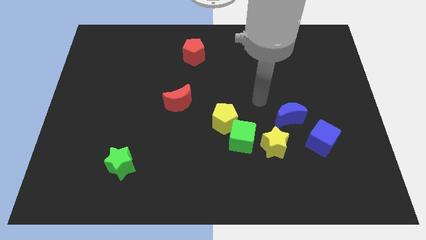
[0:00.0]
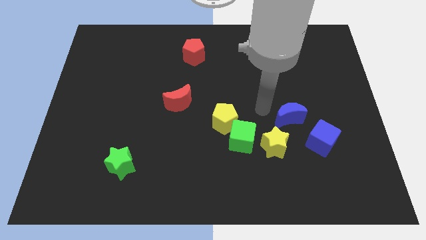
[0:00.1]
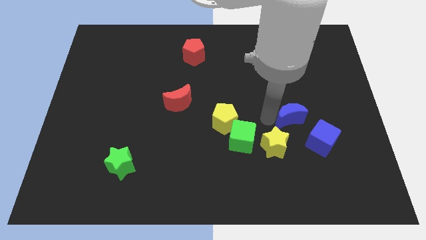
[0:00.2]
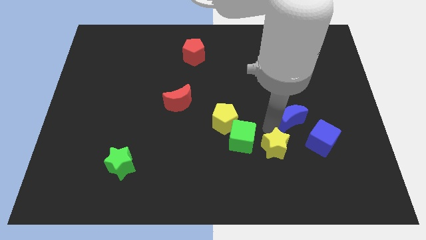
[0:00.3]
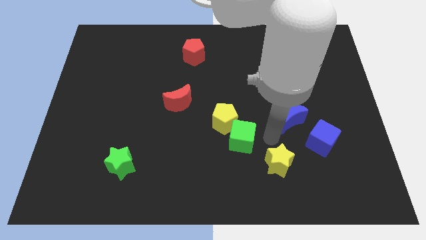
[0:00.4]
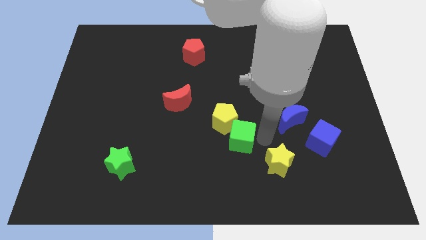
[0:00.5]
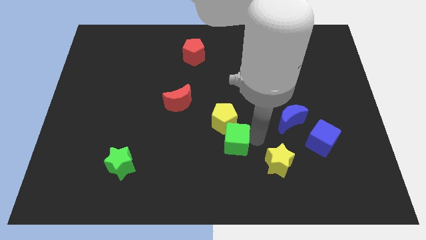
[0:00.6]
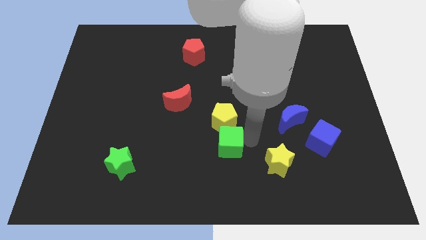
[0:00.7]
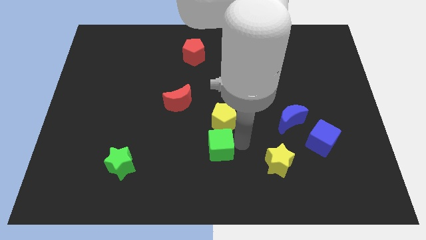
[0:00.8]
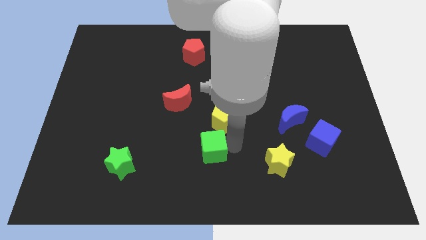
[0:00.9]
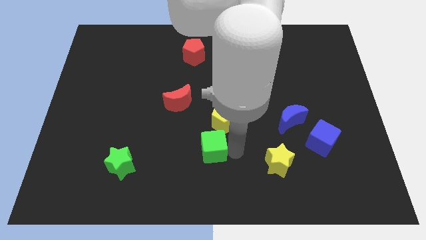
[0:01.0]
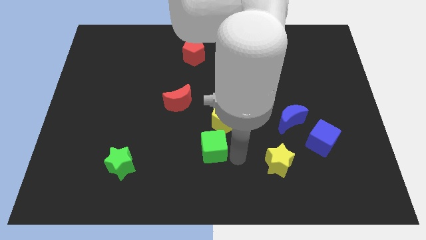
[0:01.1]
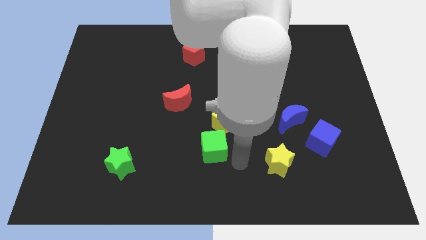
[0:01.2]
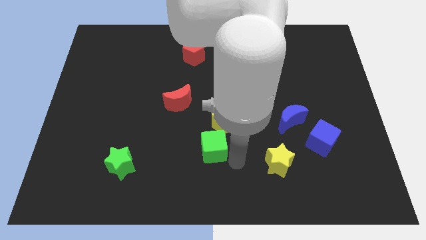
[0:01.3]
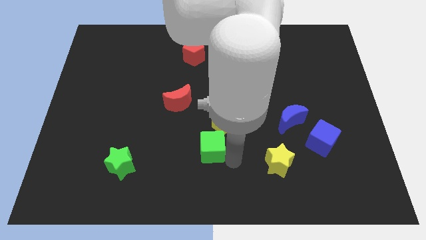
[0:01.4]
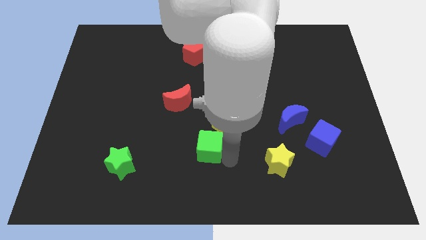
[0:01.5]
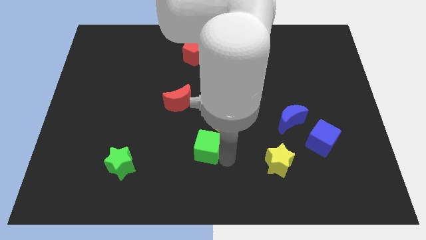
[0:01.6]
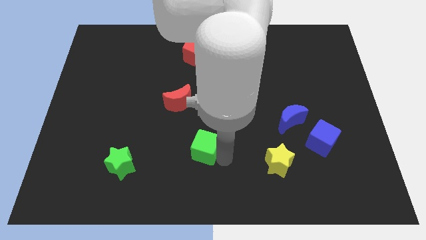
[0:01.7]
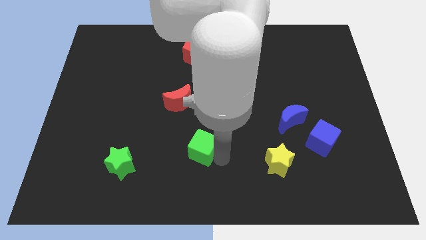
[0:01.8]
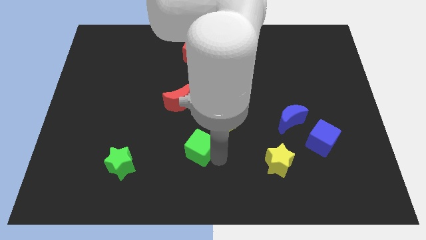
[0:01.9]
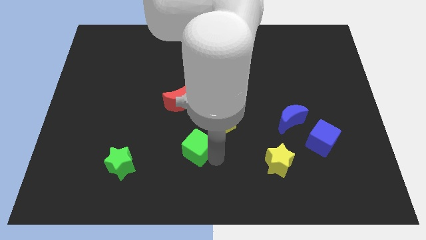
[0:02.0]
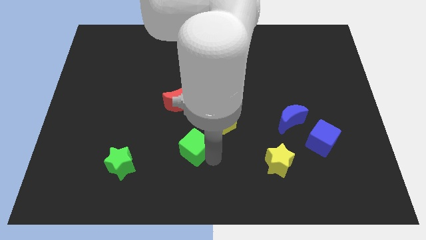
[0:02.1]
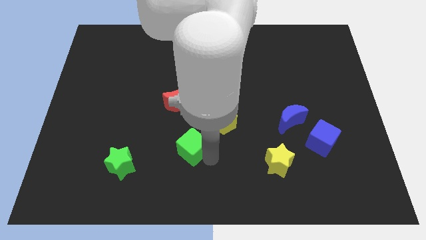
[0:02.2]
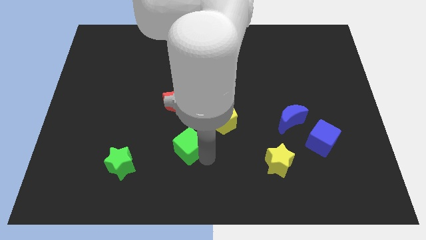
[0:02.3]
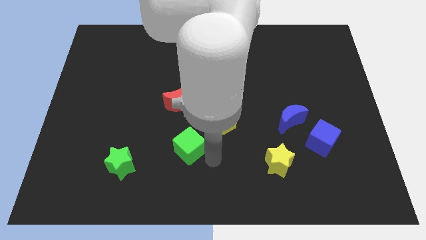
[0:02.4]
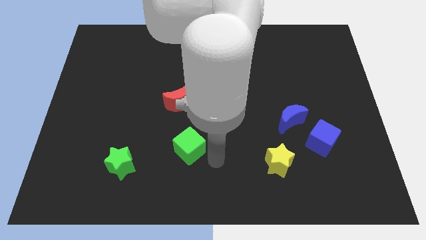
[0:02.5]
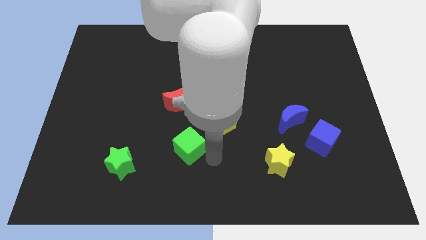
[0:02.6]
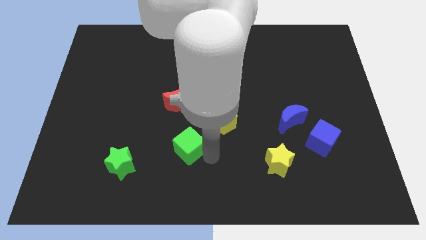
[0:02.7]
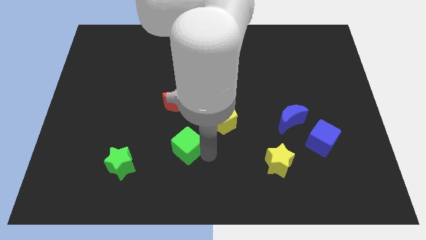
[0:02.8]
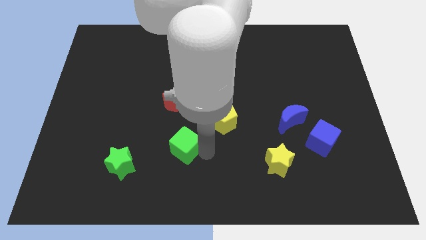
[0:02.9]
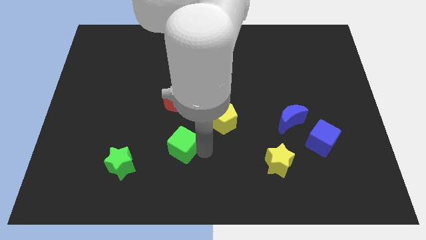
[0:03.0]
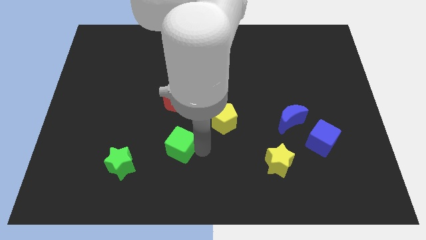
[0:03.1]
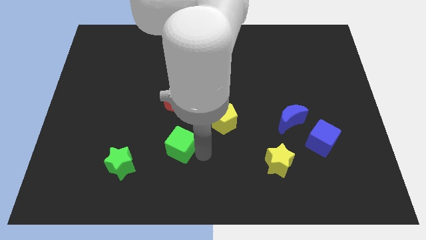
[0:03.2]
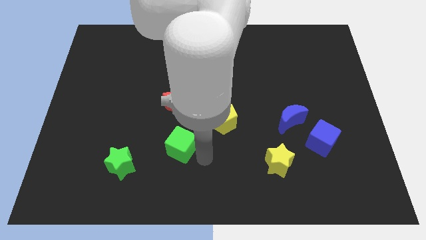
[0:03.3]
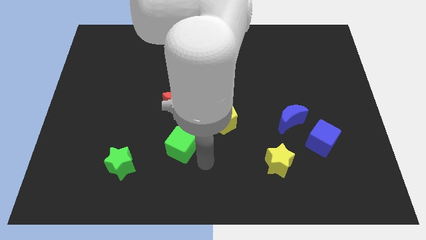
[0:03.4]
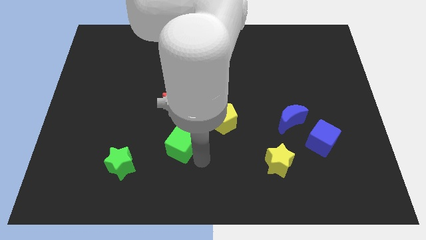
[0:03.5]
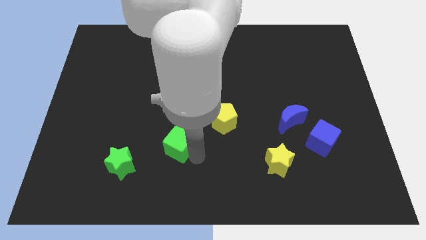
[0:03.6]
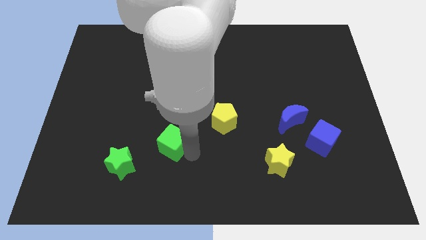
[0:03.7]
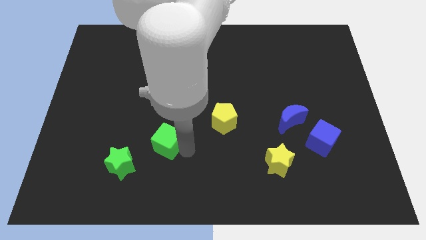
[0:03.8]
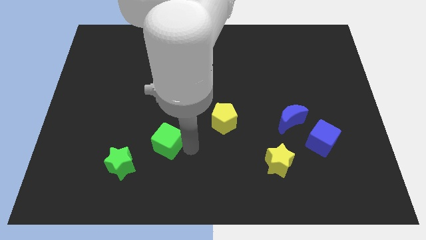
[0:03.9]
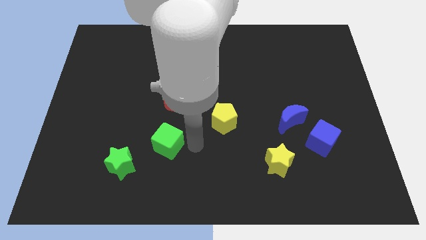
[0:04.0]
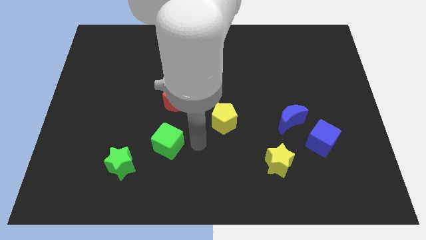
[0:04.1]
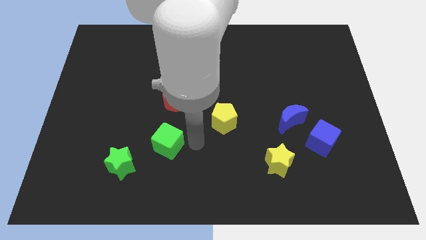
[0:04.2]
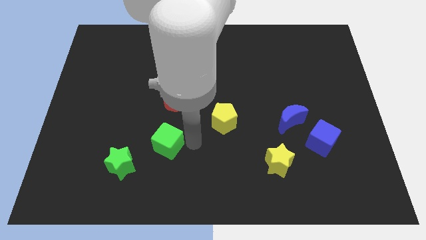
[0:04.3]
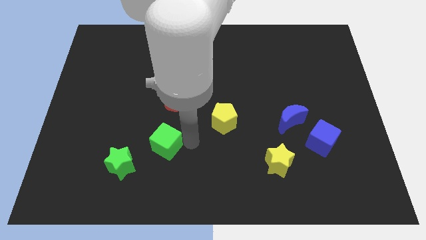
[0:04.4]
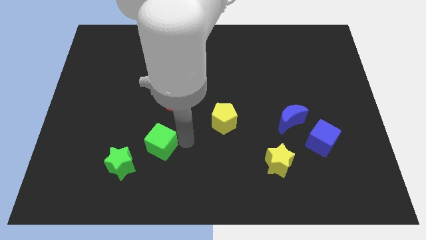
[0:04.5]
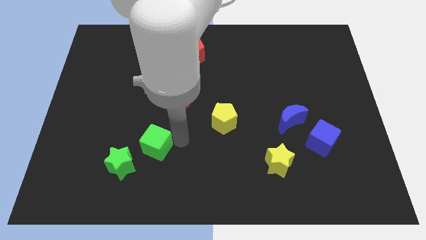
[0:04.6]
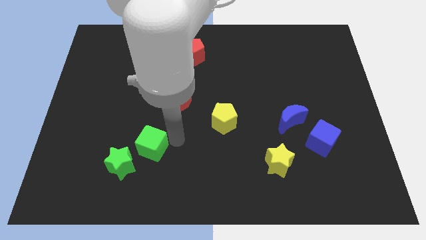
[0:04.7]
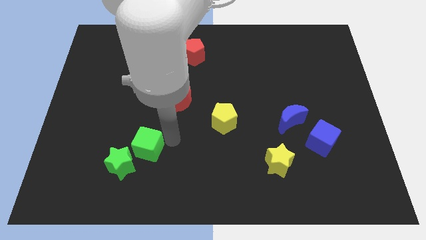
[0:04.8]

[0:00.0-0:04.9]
move the green cube to the left

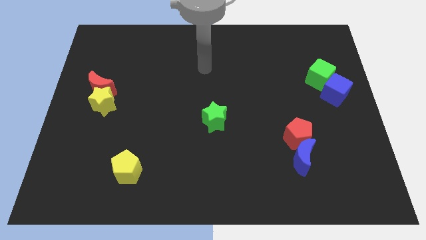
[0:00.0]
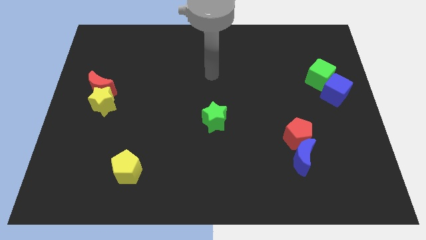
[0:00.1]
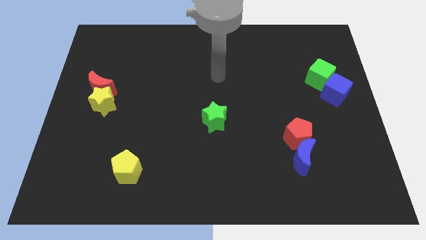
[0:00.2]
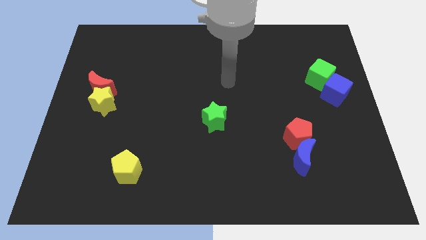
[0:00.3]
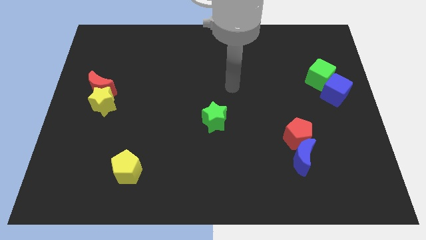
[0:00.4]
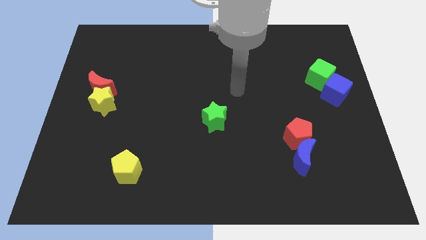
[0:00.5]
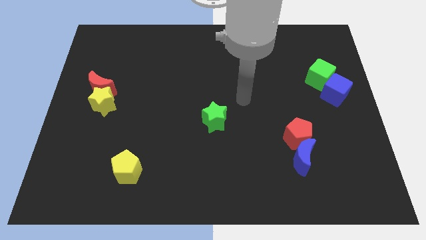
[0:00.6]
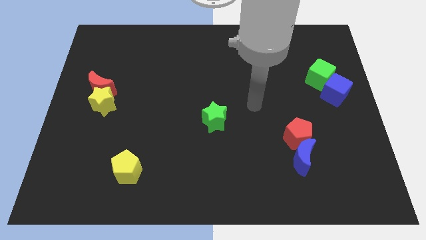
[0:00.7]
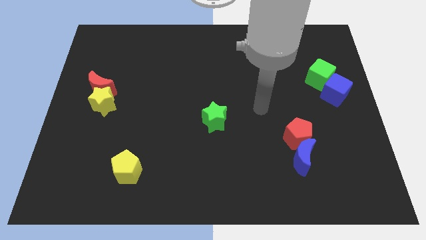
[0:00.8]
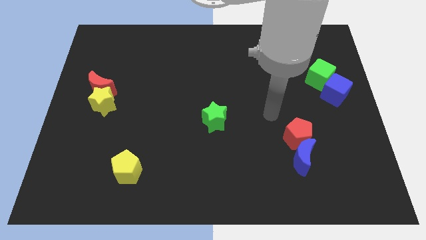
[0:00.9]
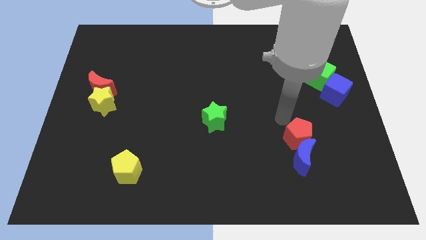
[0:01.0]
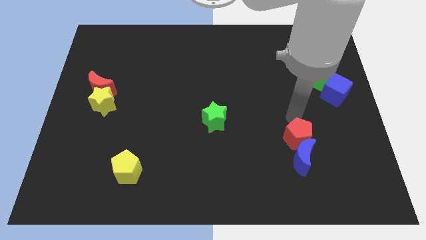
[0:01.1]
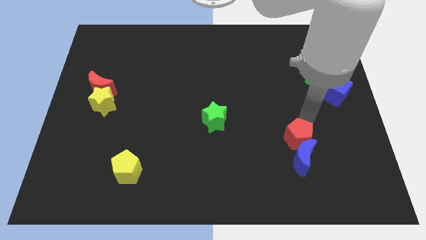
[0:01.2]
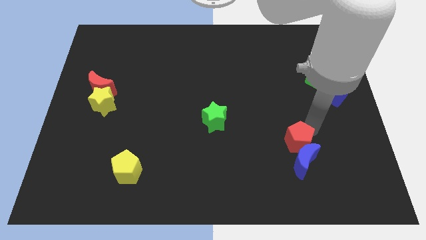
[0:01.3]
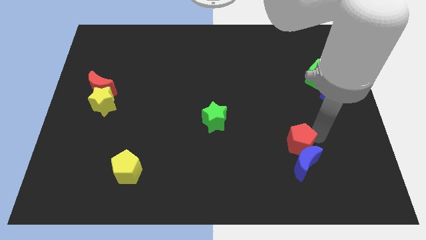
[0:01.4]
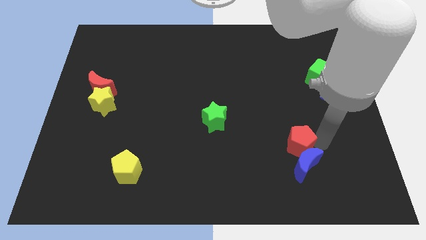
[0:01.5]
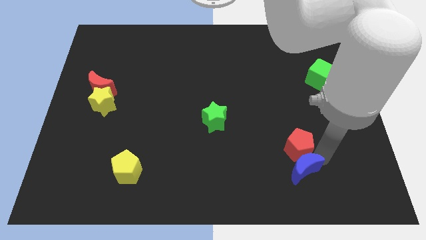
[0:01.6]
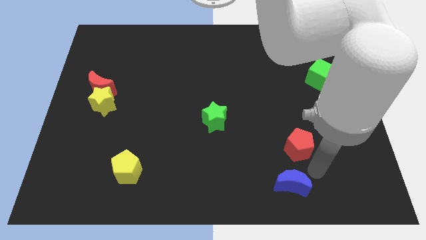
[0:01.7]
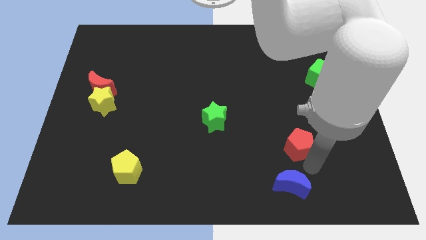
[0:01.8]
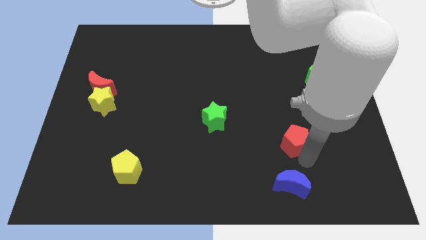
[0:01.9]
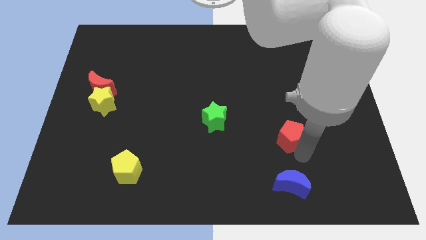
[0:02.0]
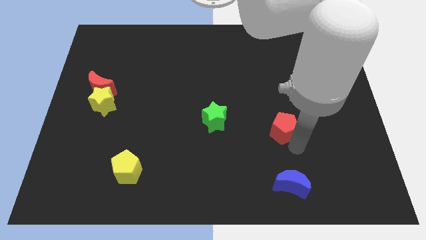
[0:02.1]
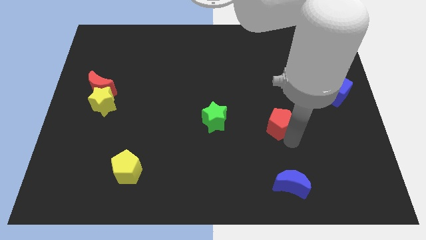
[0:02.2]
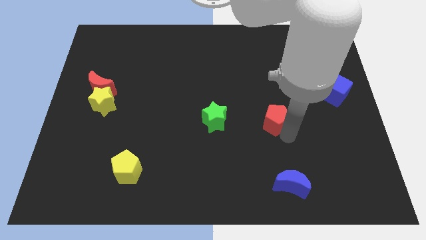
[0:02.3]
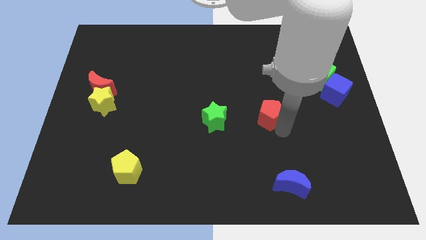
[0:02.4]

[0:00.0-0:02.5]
slide the red pentagon diagonally upwards and to the left a little

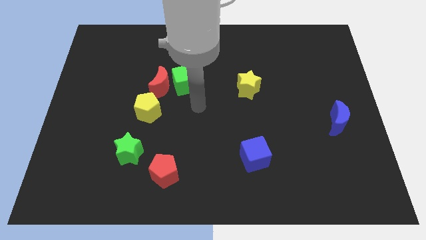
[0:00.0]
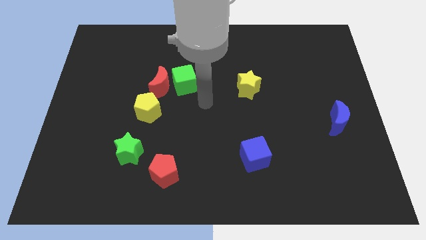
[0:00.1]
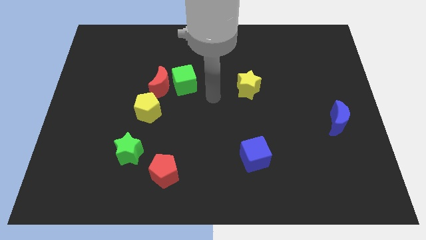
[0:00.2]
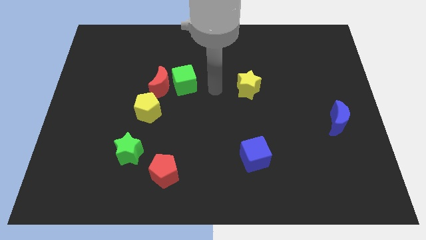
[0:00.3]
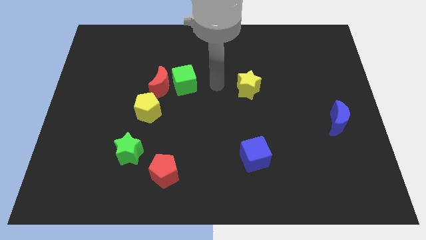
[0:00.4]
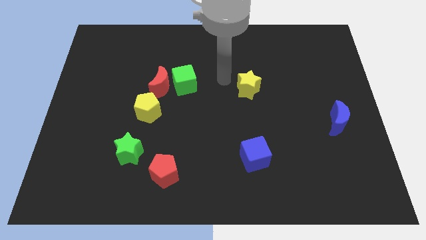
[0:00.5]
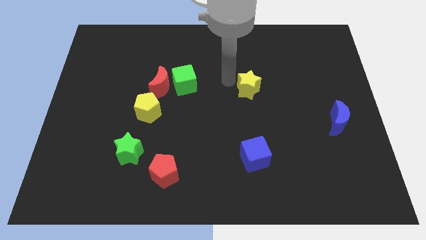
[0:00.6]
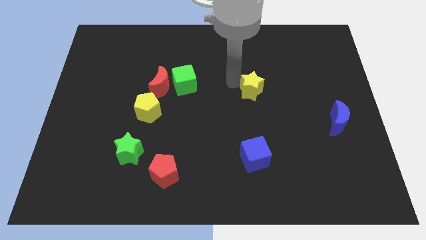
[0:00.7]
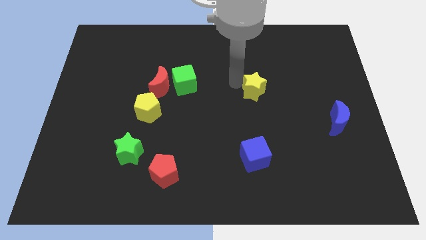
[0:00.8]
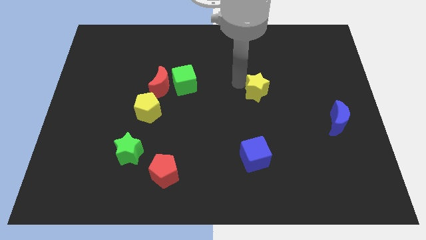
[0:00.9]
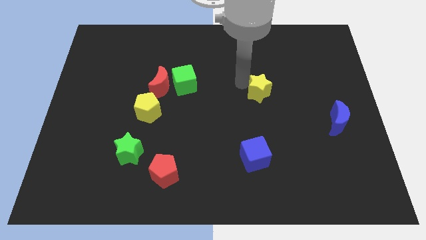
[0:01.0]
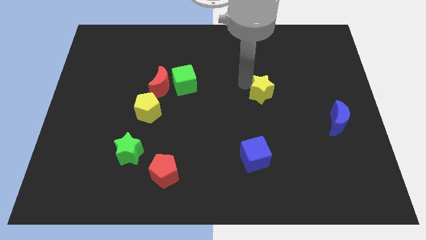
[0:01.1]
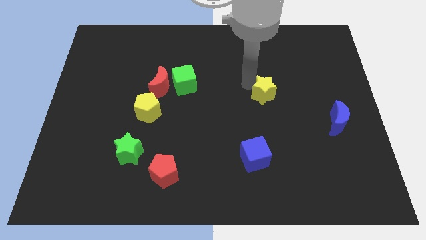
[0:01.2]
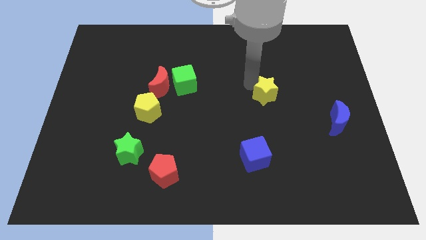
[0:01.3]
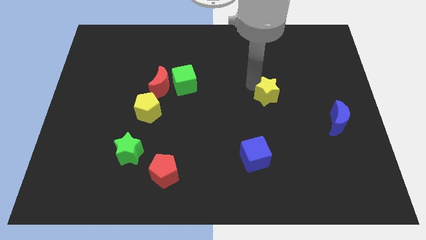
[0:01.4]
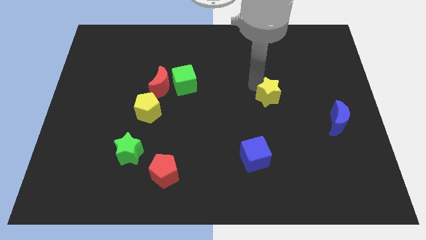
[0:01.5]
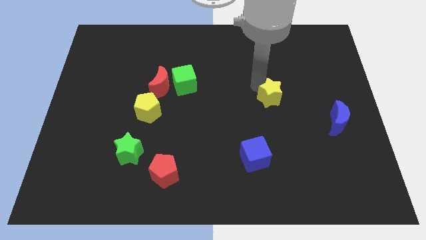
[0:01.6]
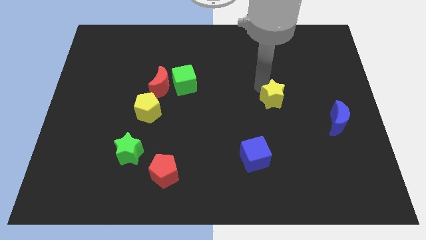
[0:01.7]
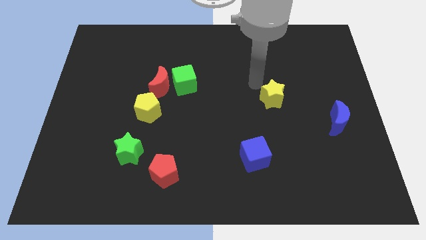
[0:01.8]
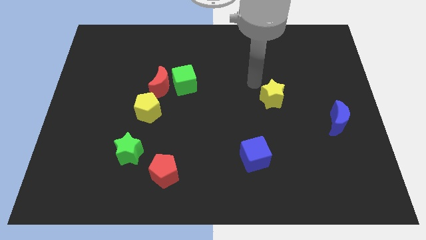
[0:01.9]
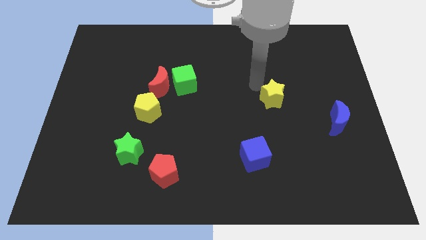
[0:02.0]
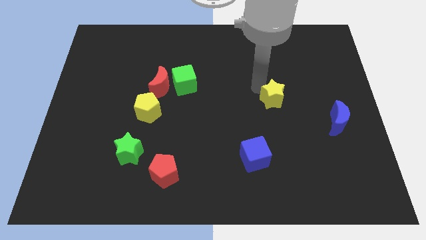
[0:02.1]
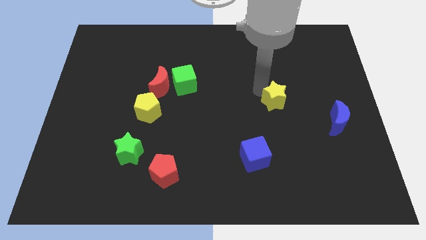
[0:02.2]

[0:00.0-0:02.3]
push the yellow star diagonally down and to the right slightly
